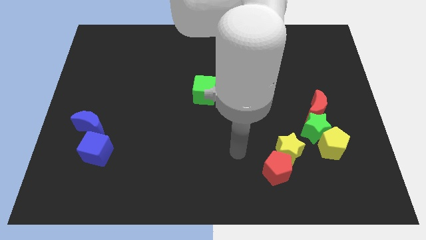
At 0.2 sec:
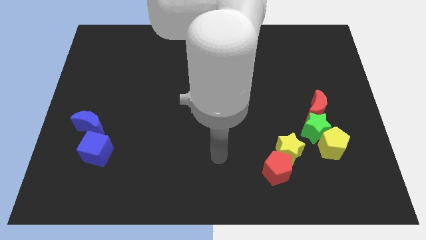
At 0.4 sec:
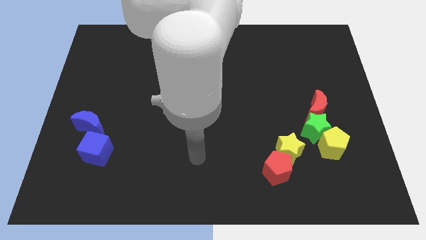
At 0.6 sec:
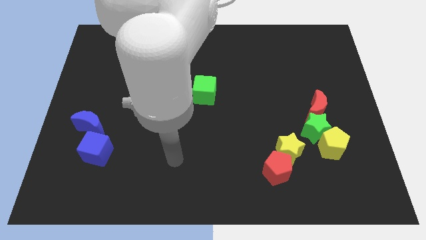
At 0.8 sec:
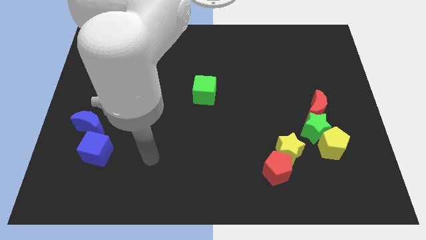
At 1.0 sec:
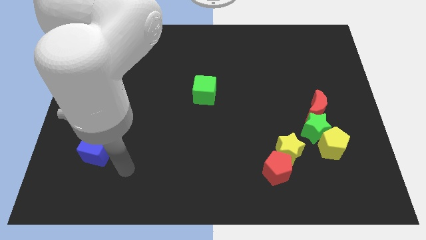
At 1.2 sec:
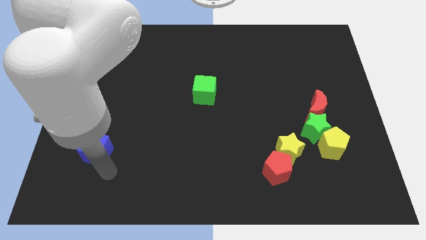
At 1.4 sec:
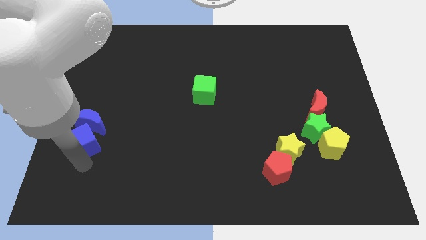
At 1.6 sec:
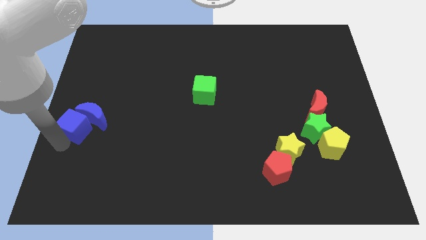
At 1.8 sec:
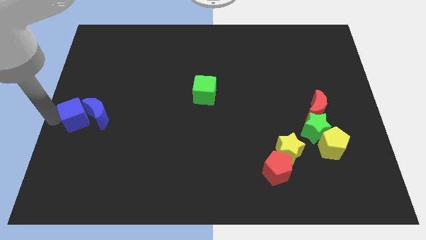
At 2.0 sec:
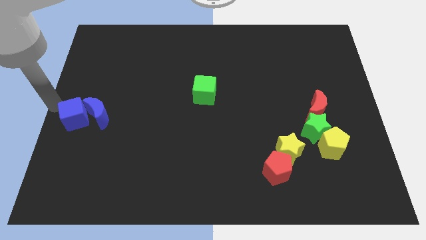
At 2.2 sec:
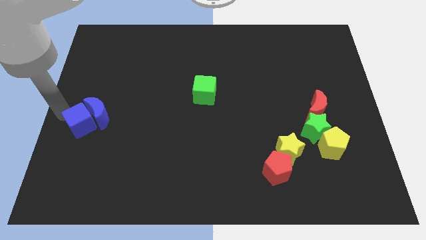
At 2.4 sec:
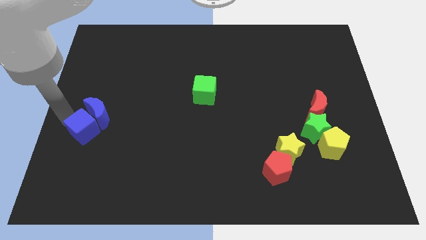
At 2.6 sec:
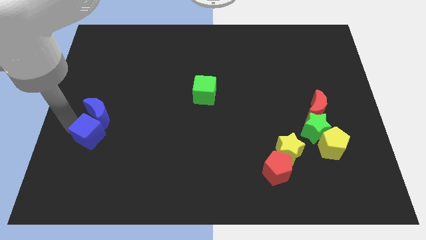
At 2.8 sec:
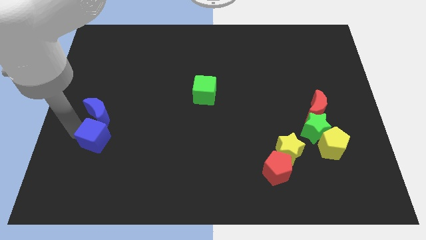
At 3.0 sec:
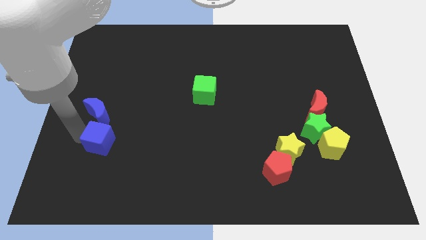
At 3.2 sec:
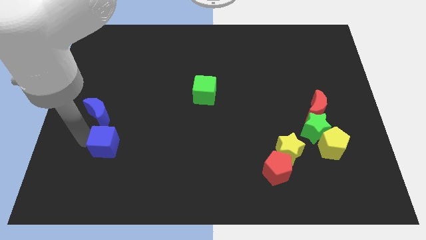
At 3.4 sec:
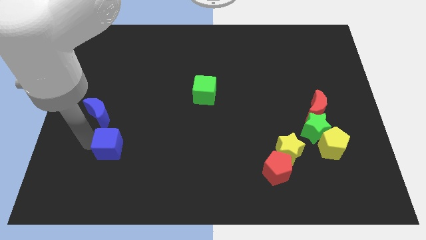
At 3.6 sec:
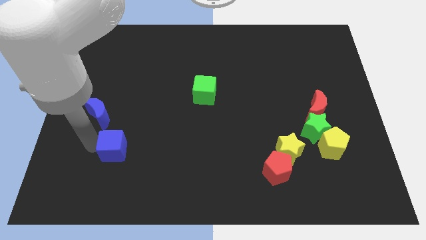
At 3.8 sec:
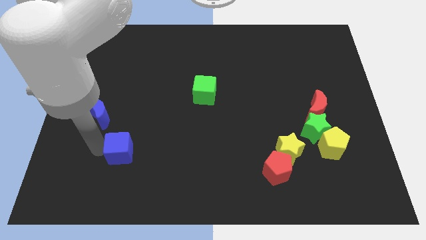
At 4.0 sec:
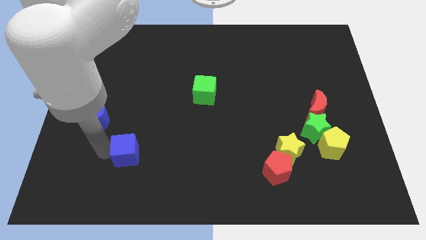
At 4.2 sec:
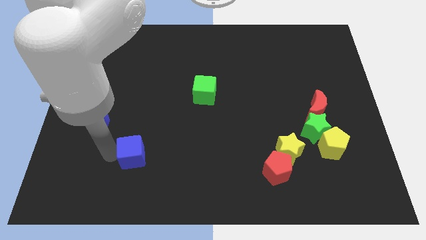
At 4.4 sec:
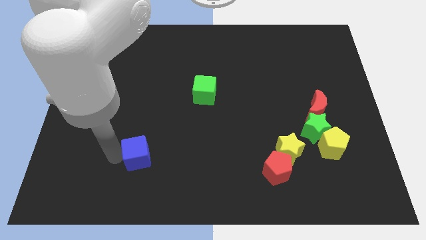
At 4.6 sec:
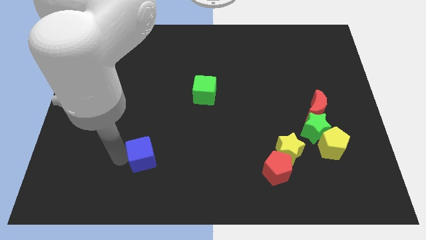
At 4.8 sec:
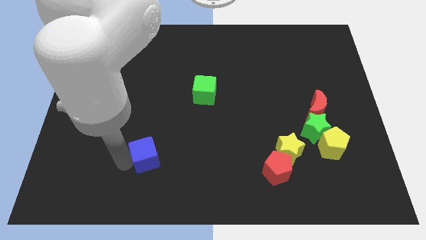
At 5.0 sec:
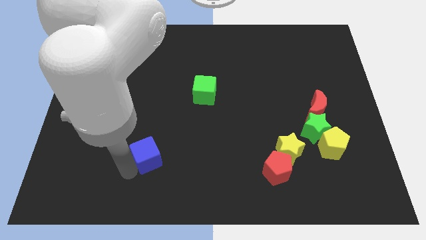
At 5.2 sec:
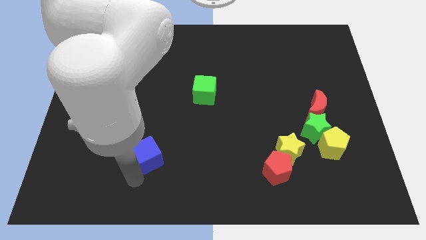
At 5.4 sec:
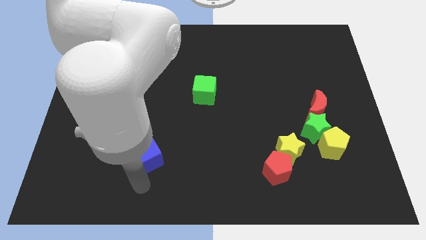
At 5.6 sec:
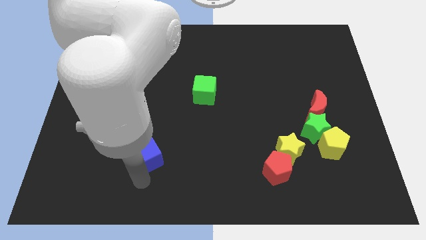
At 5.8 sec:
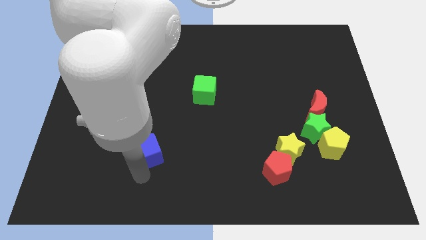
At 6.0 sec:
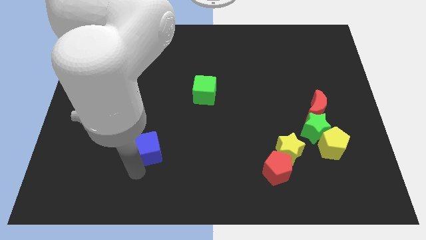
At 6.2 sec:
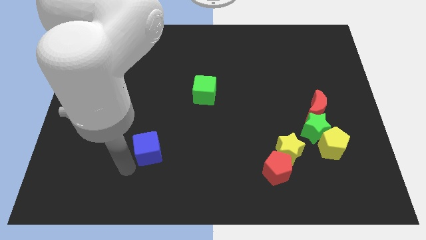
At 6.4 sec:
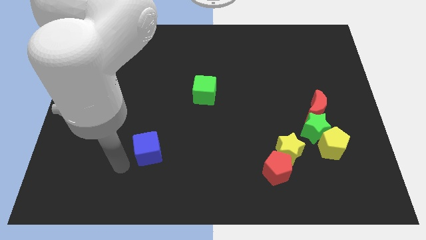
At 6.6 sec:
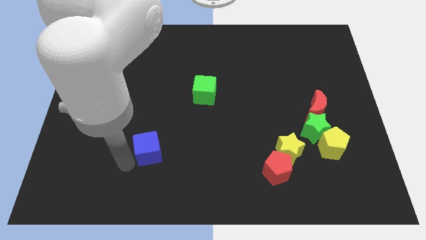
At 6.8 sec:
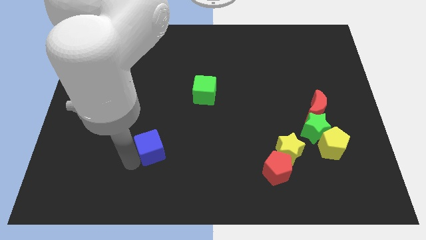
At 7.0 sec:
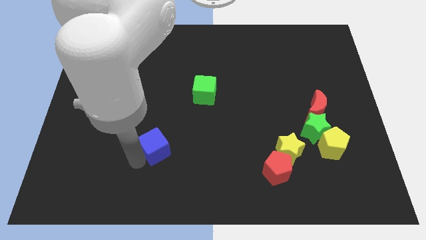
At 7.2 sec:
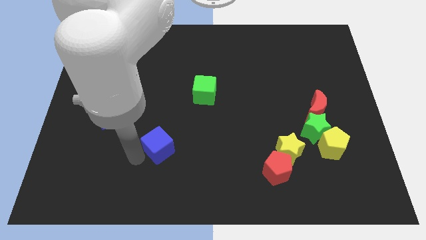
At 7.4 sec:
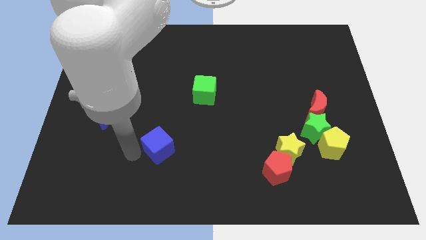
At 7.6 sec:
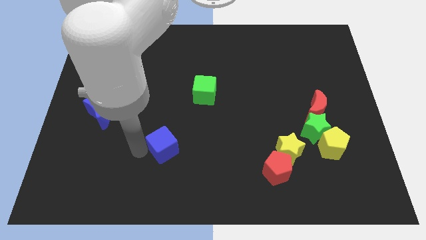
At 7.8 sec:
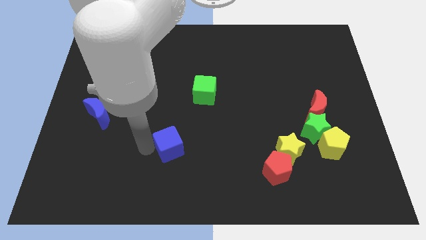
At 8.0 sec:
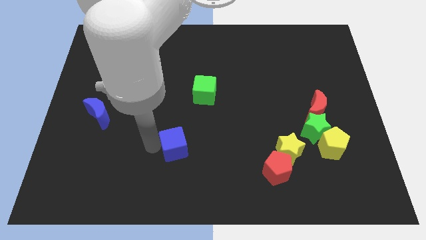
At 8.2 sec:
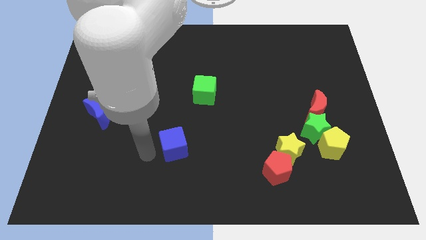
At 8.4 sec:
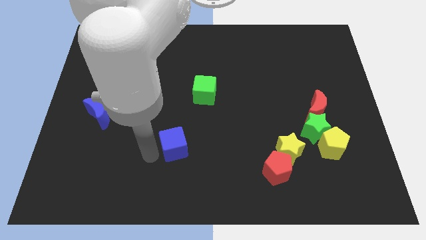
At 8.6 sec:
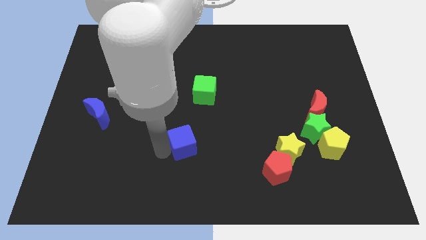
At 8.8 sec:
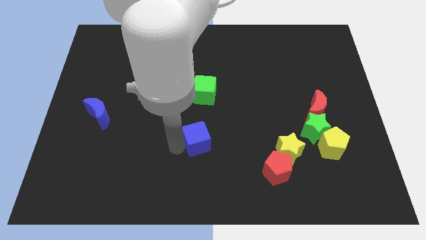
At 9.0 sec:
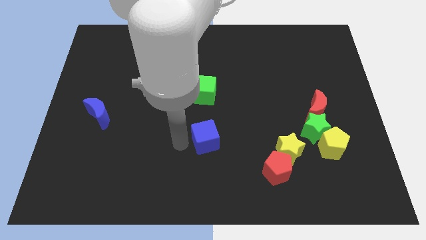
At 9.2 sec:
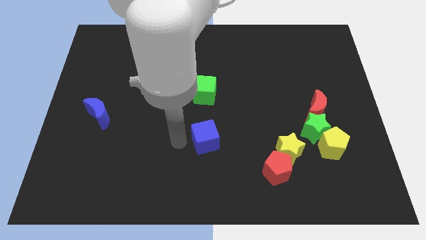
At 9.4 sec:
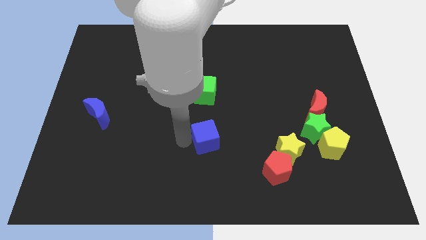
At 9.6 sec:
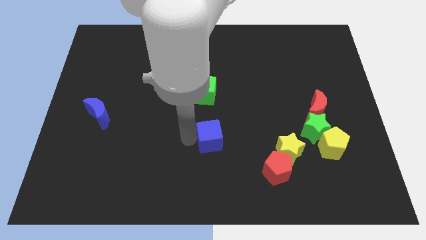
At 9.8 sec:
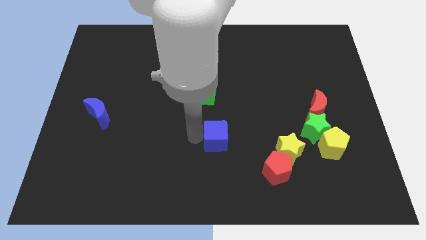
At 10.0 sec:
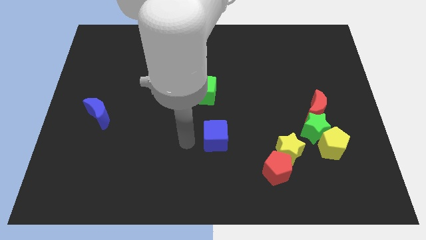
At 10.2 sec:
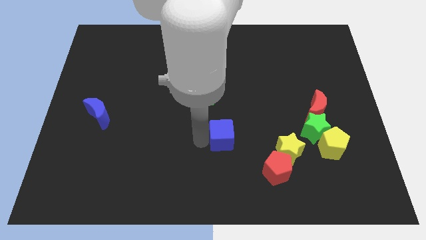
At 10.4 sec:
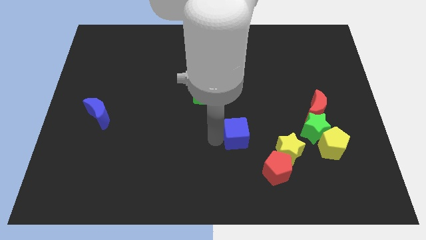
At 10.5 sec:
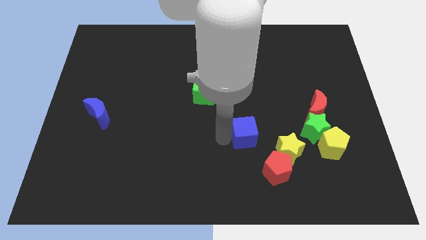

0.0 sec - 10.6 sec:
move the blue cube just left of the green star

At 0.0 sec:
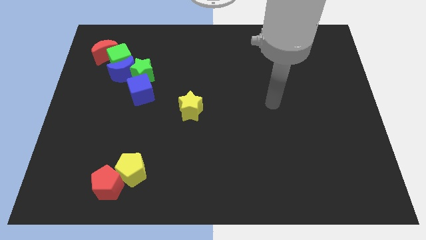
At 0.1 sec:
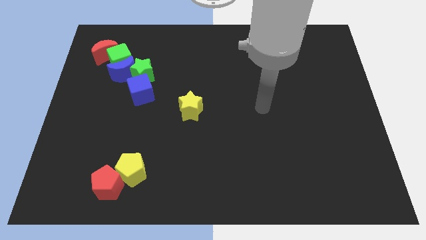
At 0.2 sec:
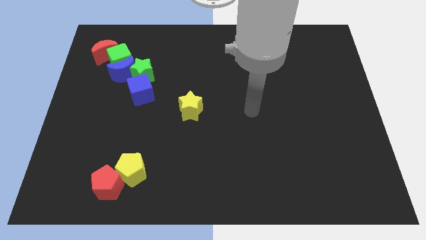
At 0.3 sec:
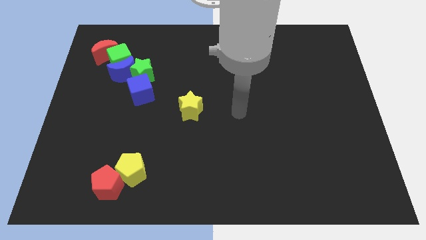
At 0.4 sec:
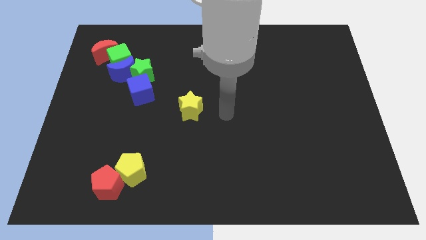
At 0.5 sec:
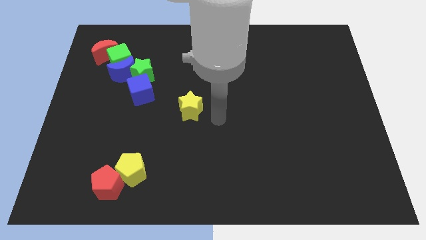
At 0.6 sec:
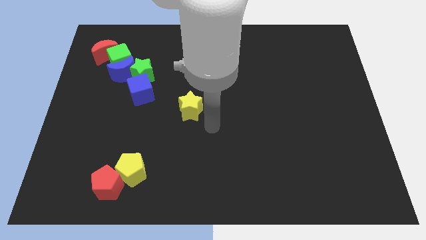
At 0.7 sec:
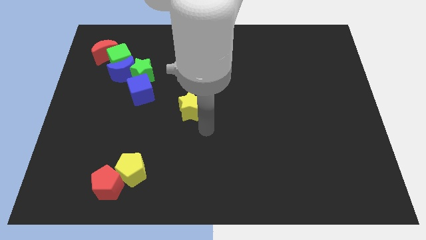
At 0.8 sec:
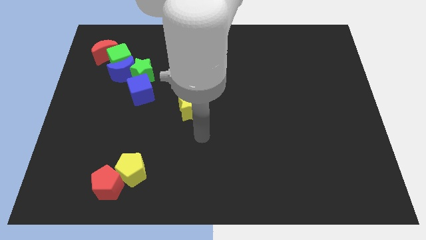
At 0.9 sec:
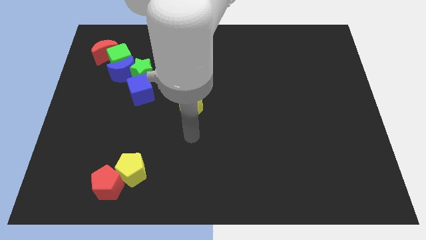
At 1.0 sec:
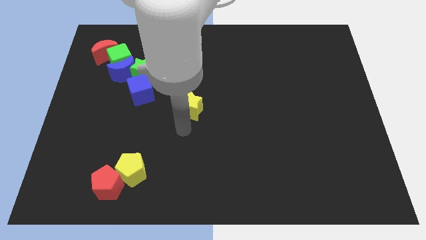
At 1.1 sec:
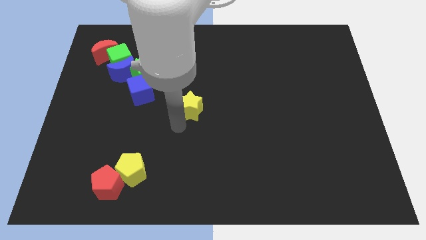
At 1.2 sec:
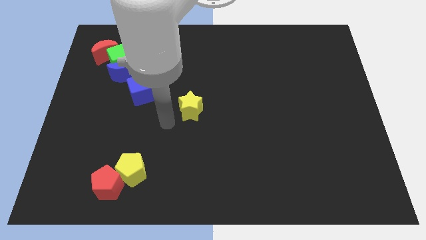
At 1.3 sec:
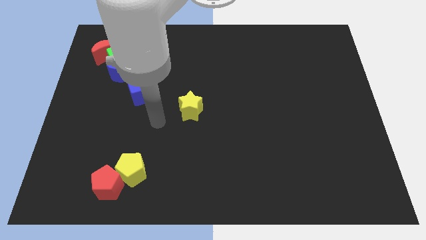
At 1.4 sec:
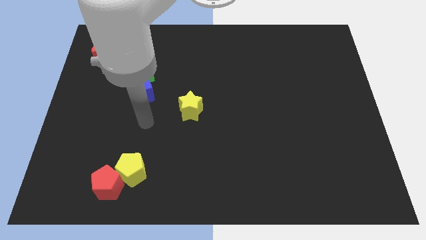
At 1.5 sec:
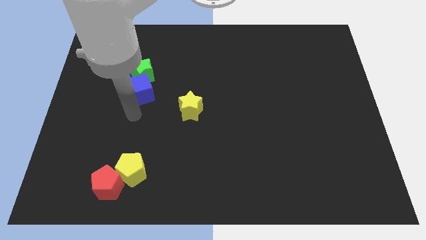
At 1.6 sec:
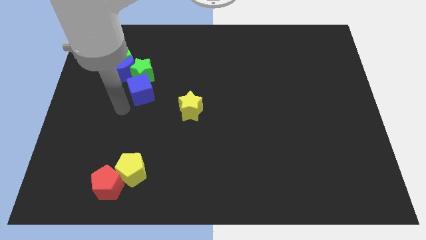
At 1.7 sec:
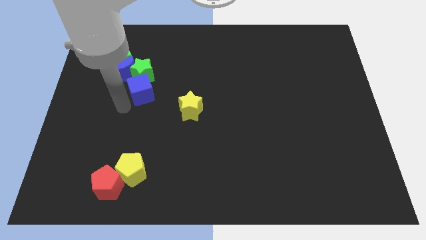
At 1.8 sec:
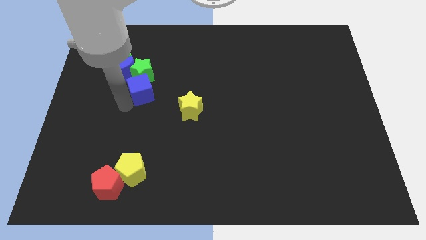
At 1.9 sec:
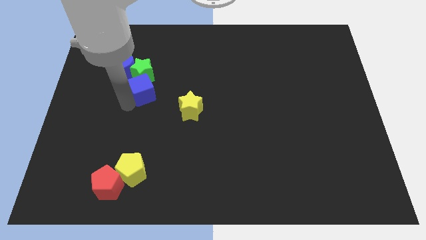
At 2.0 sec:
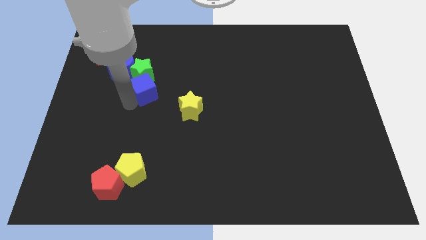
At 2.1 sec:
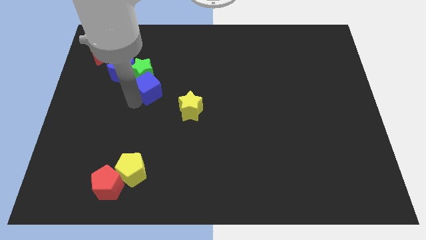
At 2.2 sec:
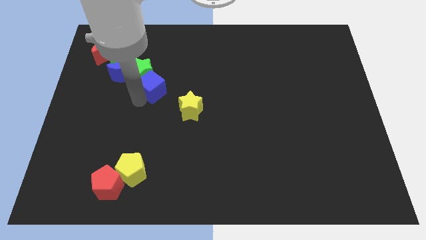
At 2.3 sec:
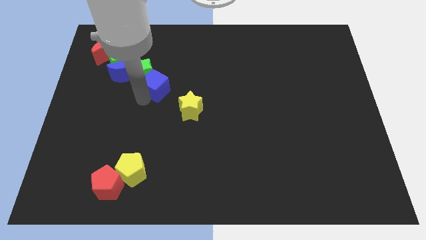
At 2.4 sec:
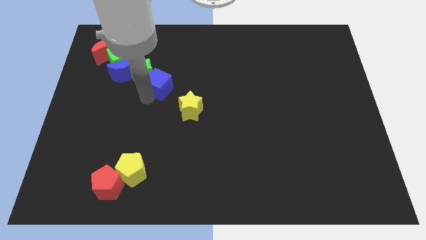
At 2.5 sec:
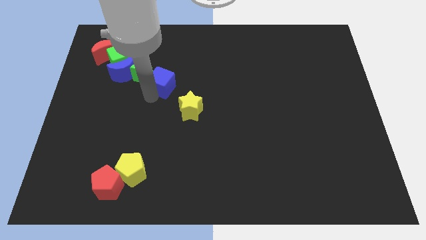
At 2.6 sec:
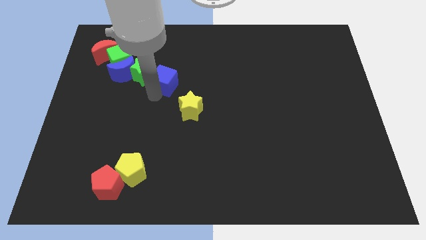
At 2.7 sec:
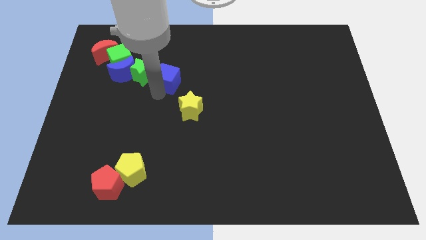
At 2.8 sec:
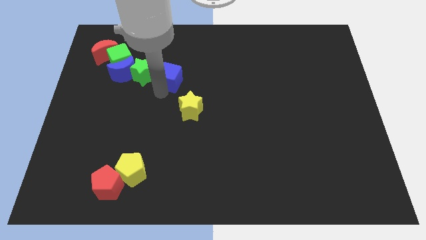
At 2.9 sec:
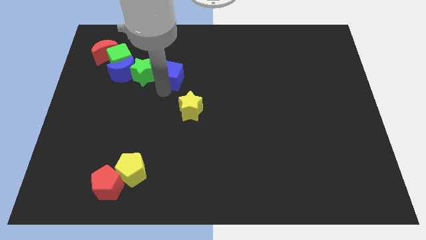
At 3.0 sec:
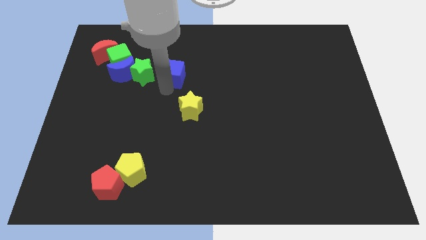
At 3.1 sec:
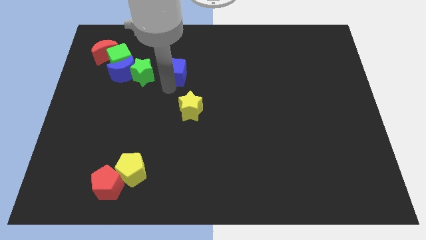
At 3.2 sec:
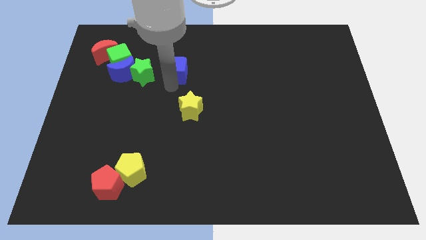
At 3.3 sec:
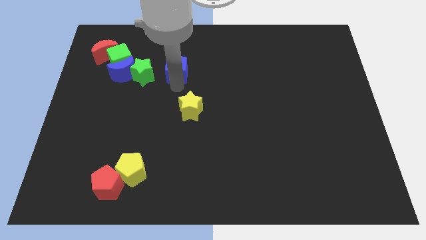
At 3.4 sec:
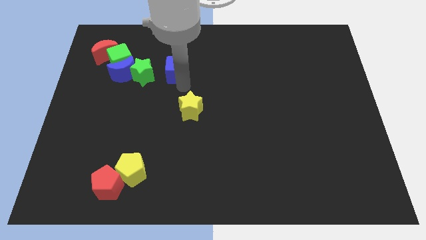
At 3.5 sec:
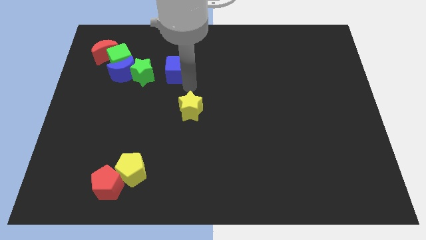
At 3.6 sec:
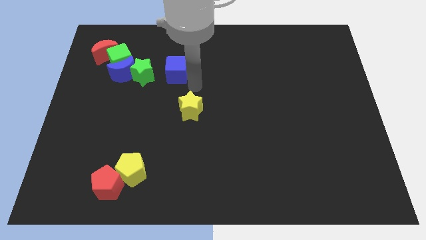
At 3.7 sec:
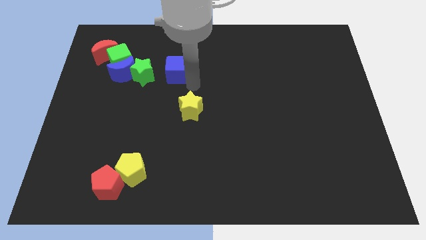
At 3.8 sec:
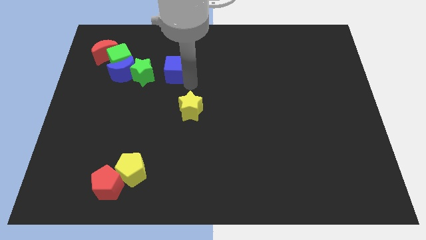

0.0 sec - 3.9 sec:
slide the blue cube right of the green cube
